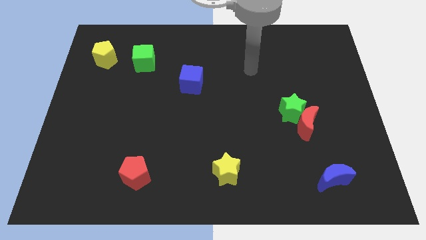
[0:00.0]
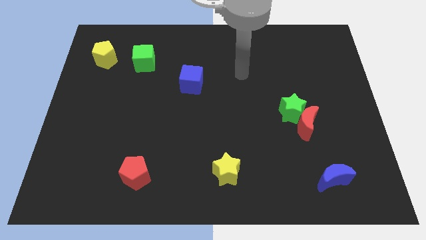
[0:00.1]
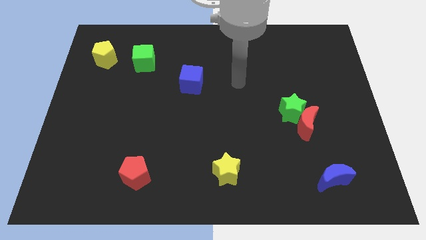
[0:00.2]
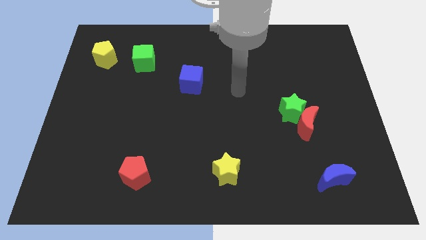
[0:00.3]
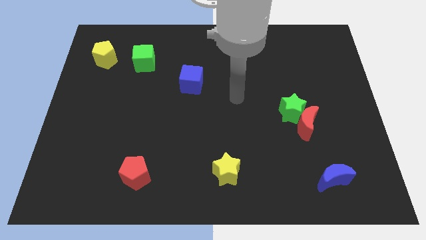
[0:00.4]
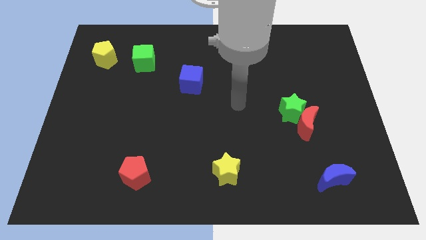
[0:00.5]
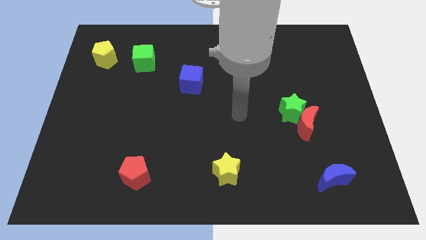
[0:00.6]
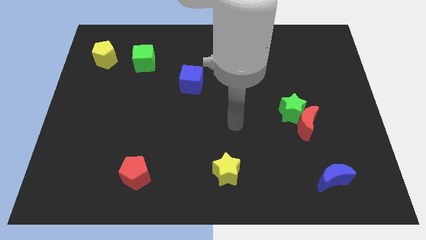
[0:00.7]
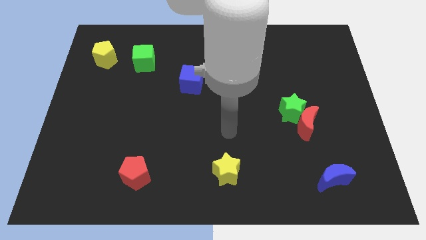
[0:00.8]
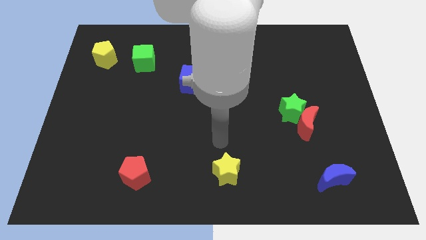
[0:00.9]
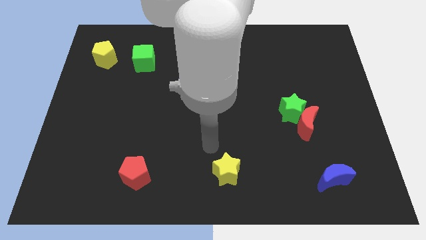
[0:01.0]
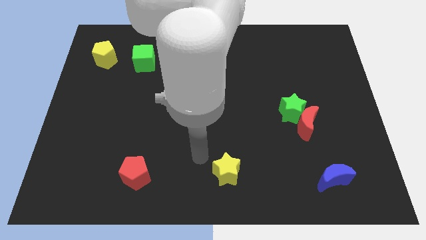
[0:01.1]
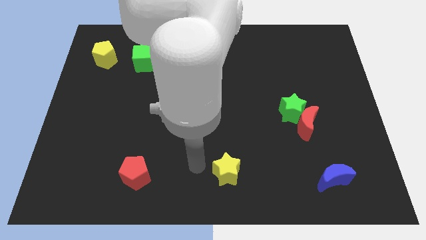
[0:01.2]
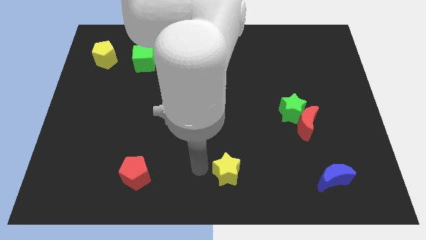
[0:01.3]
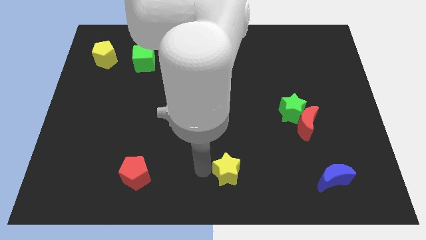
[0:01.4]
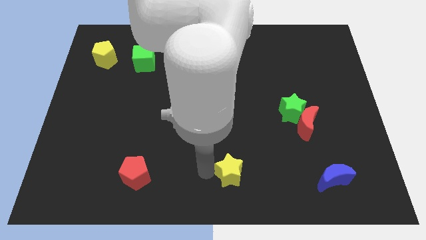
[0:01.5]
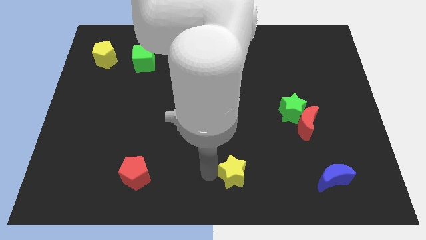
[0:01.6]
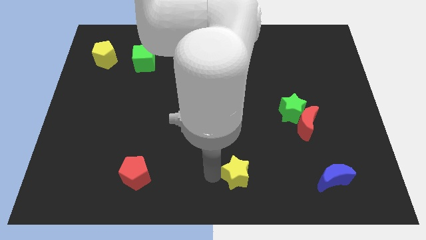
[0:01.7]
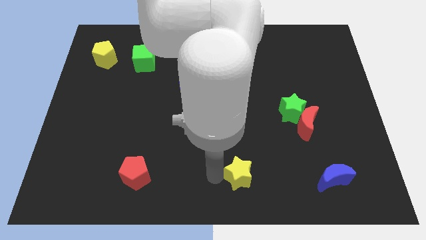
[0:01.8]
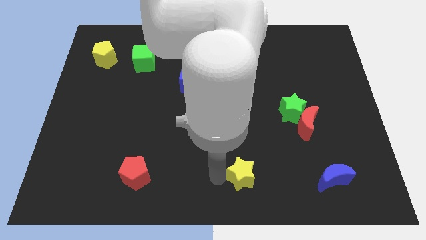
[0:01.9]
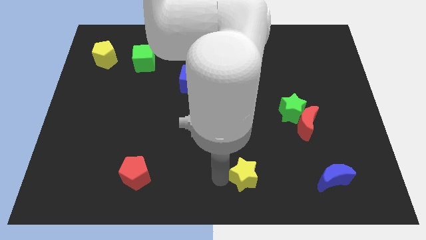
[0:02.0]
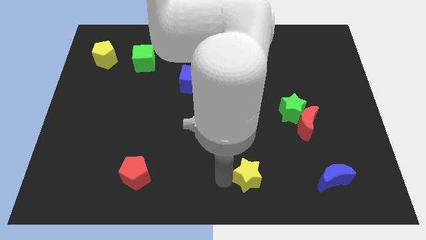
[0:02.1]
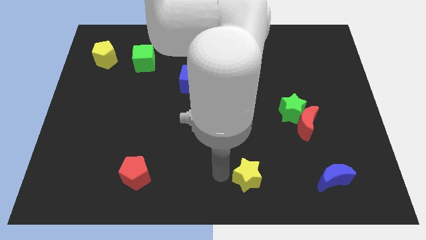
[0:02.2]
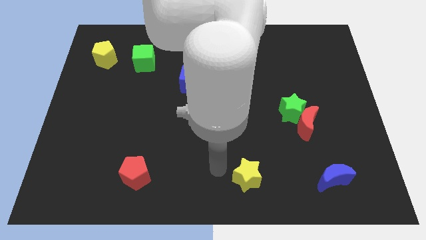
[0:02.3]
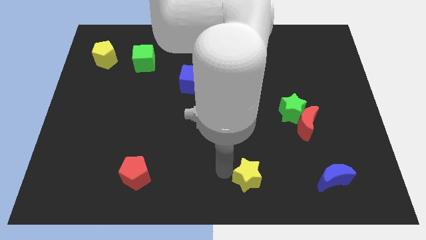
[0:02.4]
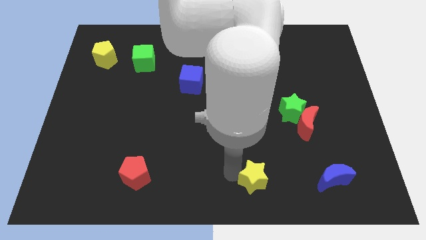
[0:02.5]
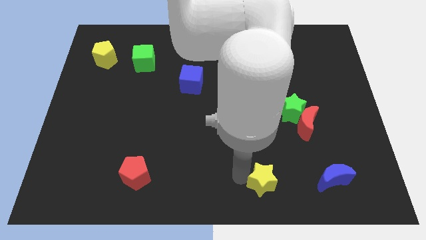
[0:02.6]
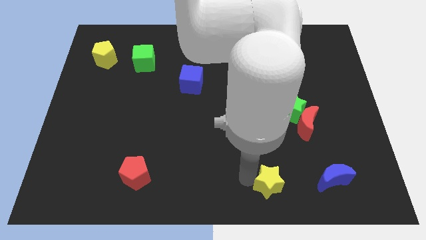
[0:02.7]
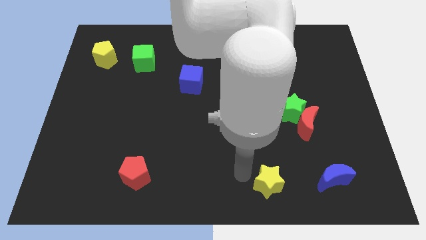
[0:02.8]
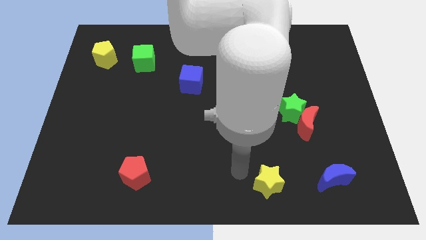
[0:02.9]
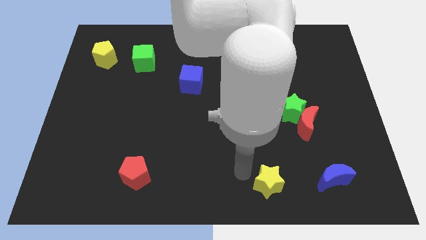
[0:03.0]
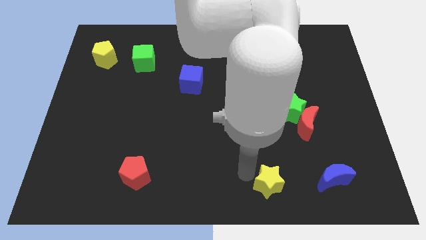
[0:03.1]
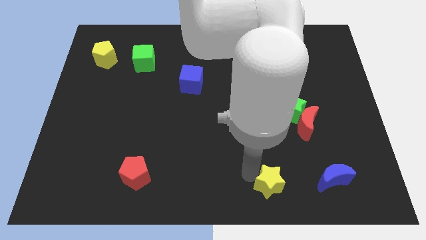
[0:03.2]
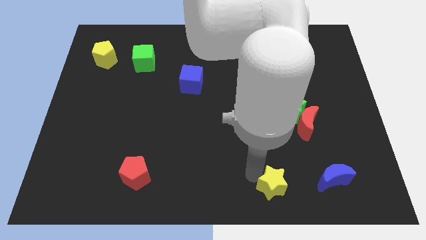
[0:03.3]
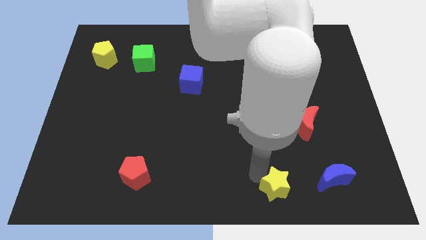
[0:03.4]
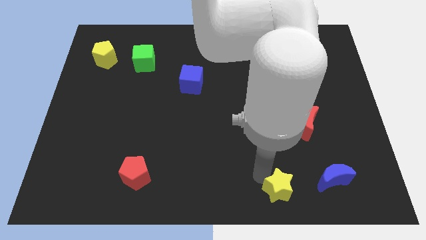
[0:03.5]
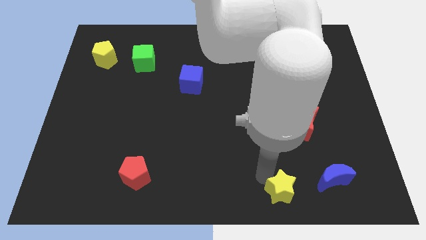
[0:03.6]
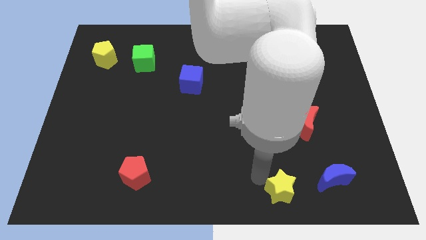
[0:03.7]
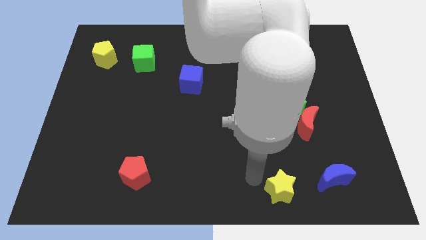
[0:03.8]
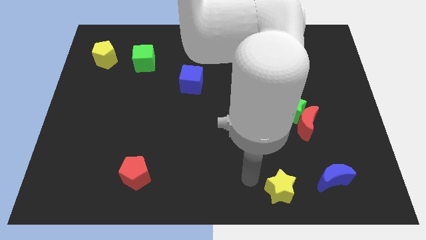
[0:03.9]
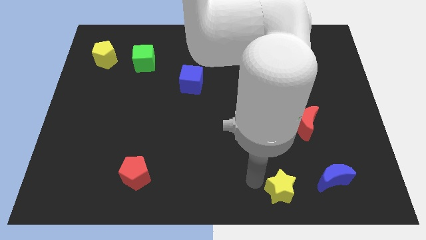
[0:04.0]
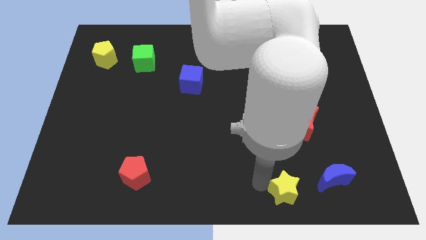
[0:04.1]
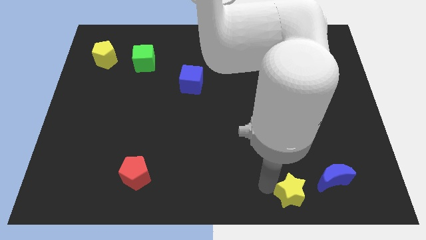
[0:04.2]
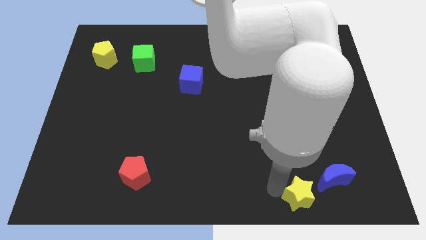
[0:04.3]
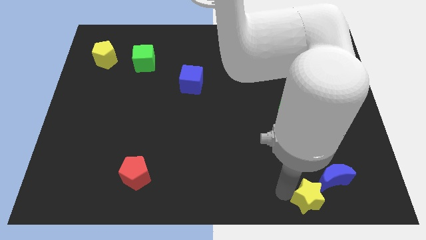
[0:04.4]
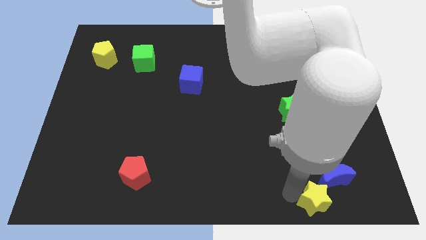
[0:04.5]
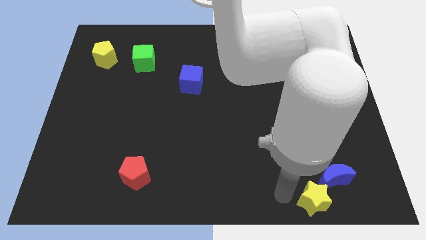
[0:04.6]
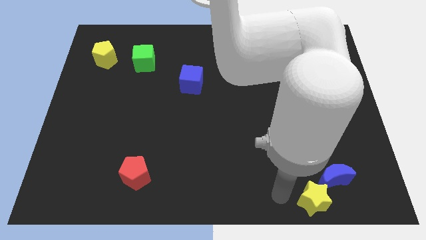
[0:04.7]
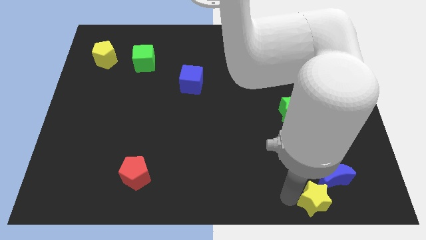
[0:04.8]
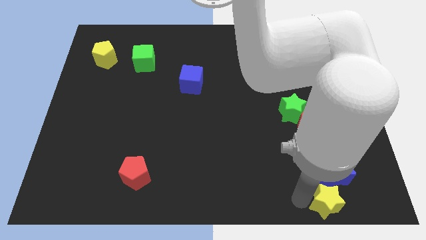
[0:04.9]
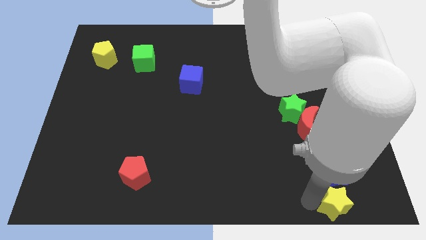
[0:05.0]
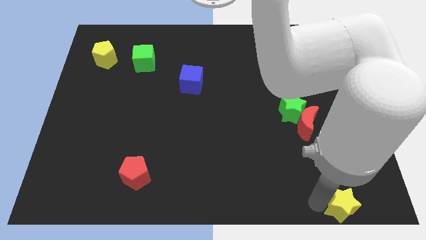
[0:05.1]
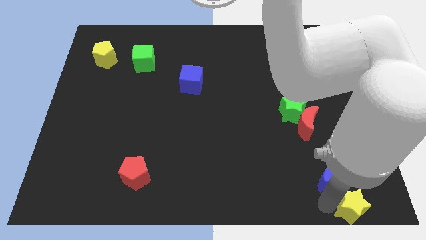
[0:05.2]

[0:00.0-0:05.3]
push the yellow star to the bottom right corner

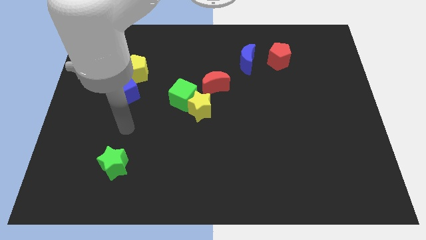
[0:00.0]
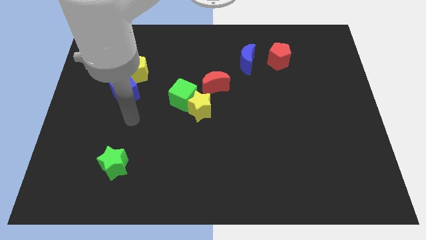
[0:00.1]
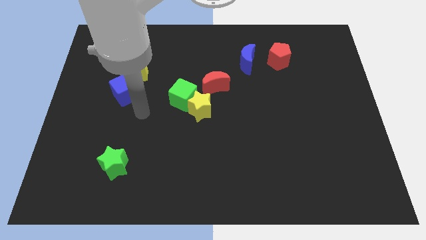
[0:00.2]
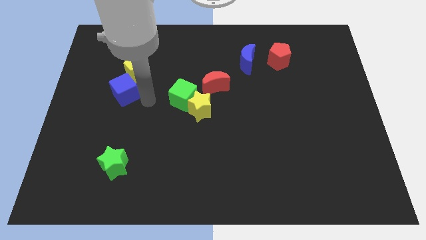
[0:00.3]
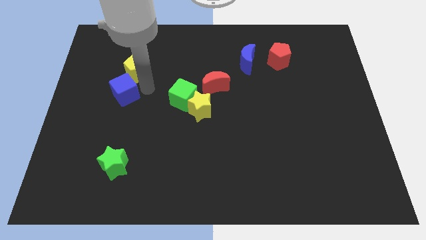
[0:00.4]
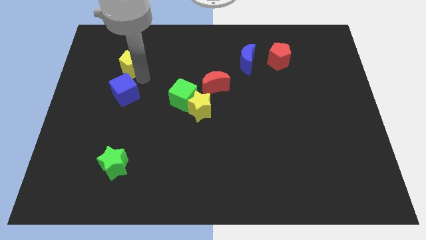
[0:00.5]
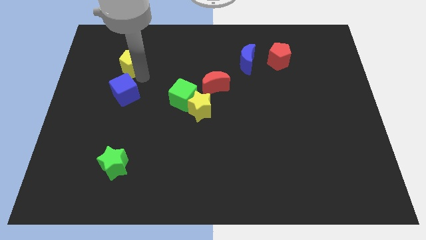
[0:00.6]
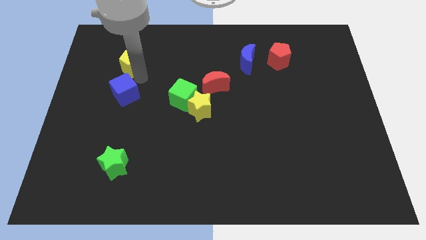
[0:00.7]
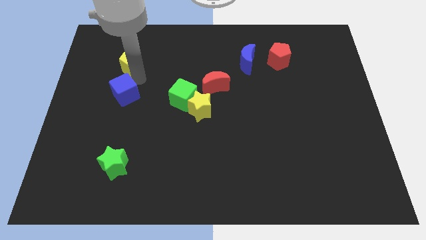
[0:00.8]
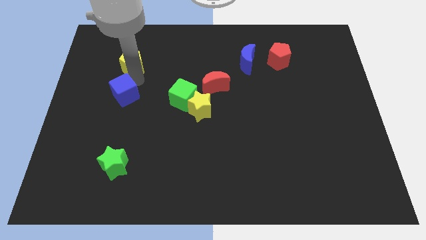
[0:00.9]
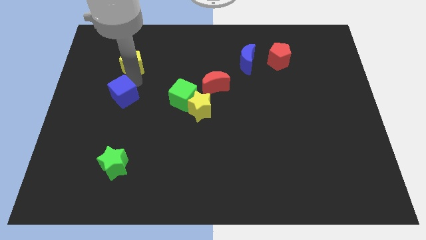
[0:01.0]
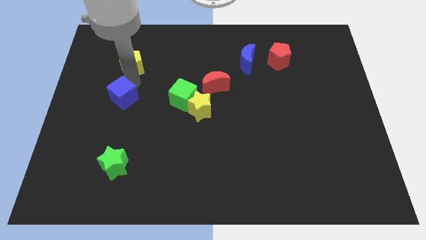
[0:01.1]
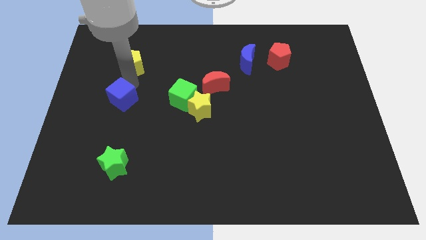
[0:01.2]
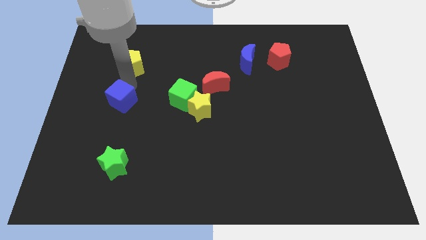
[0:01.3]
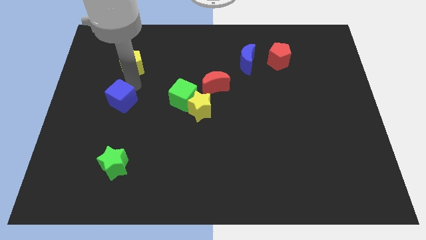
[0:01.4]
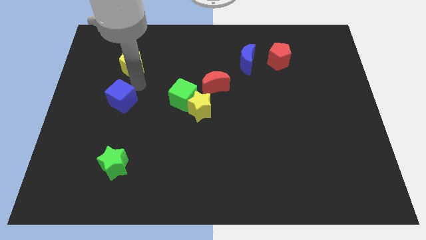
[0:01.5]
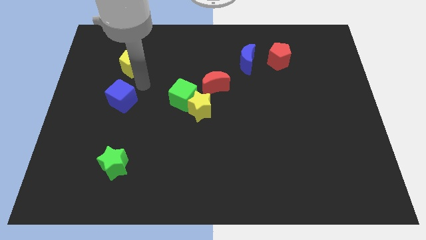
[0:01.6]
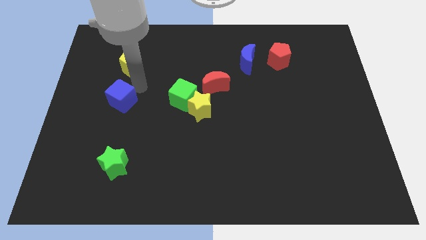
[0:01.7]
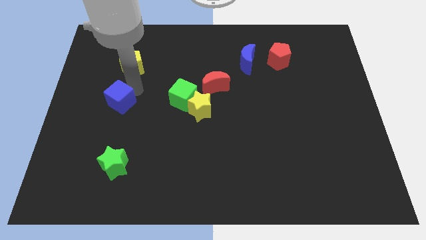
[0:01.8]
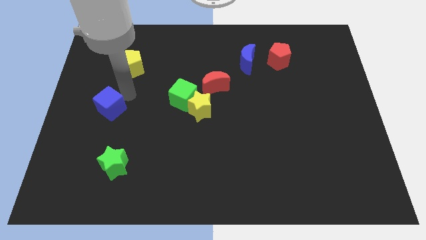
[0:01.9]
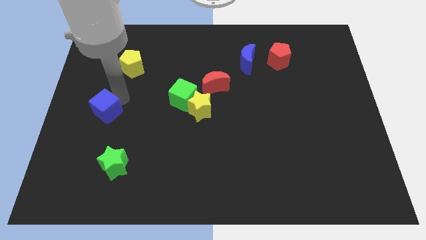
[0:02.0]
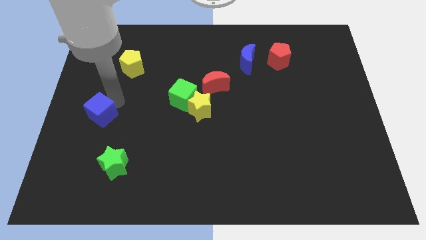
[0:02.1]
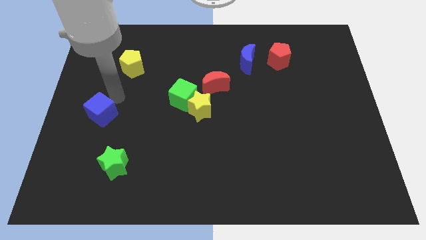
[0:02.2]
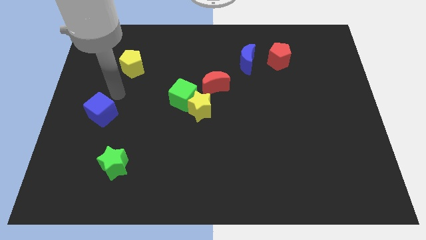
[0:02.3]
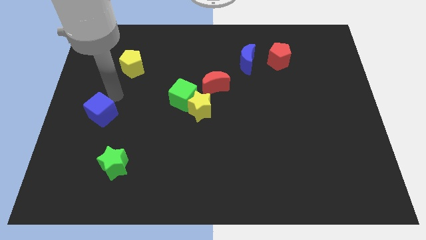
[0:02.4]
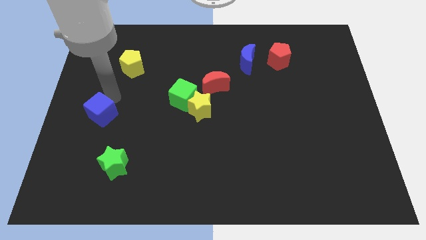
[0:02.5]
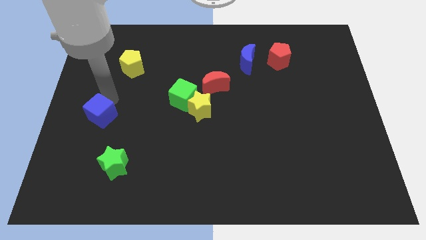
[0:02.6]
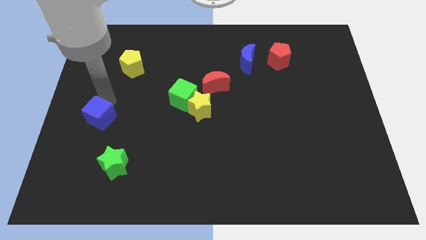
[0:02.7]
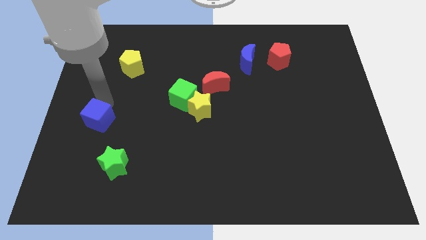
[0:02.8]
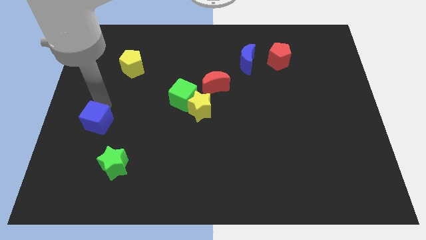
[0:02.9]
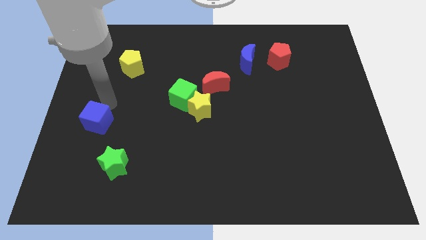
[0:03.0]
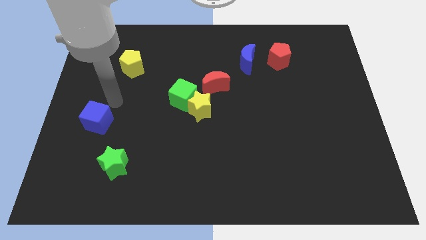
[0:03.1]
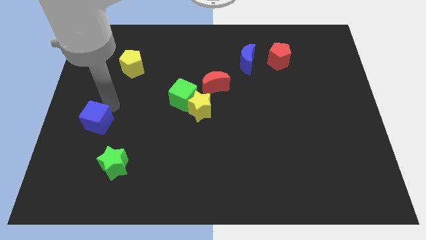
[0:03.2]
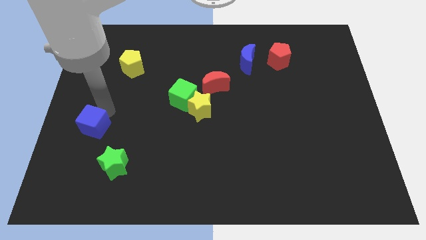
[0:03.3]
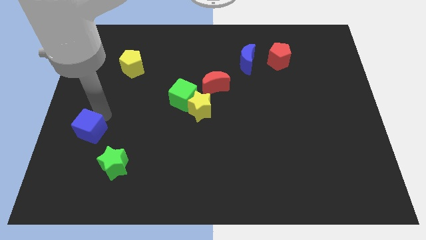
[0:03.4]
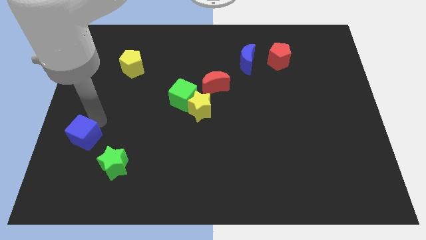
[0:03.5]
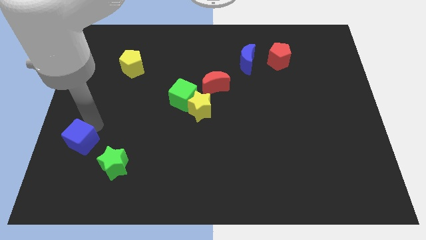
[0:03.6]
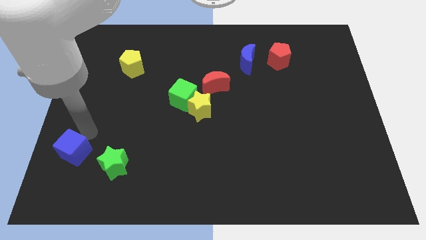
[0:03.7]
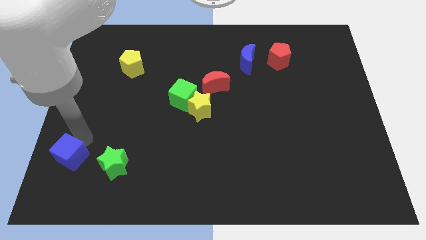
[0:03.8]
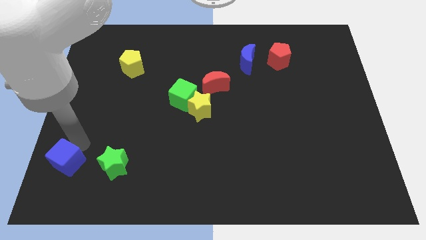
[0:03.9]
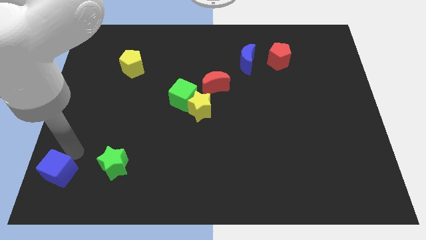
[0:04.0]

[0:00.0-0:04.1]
move the blue cube to the lower left corner
